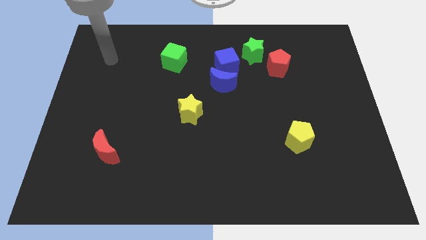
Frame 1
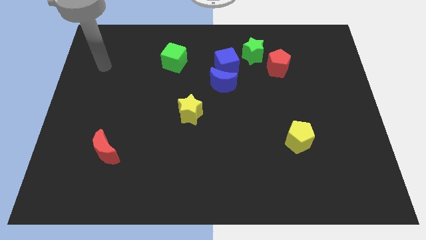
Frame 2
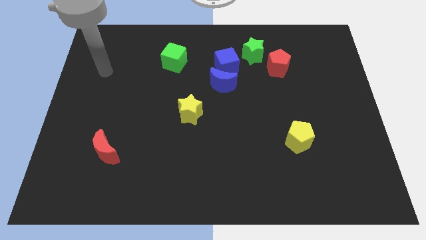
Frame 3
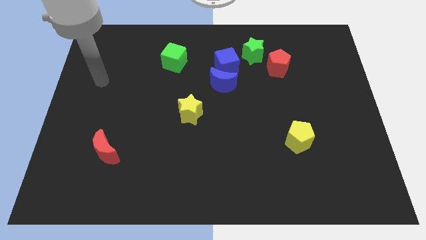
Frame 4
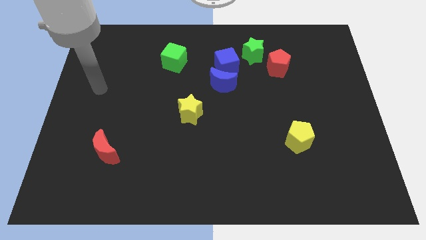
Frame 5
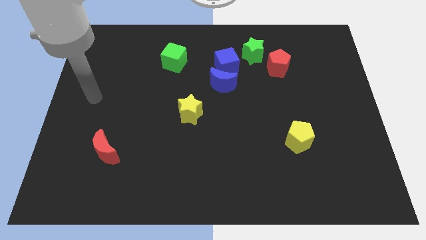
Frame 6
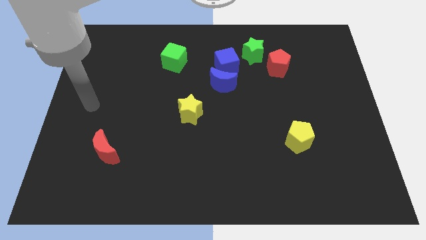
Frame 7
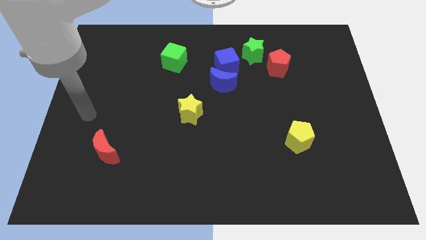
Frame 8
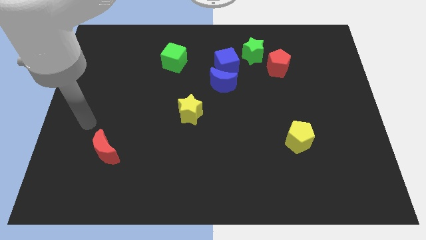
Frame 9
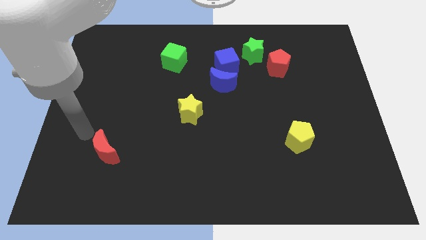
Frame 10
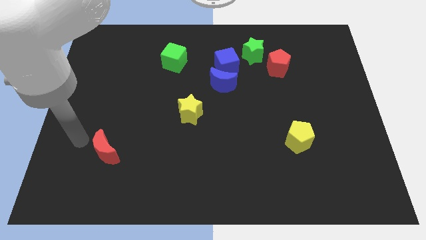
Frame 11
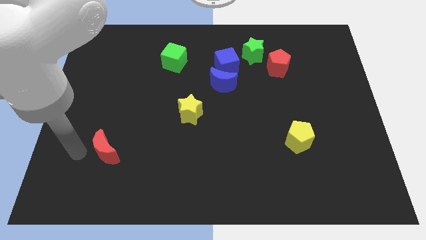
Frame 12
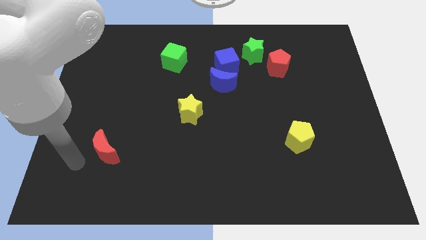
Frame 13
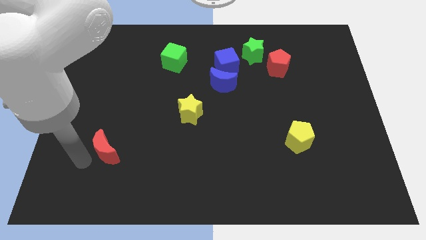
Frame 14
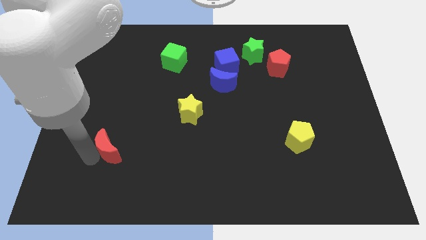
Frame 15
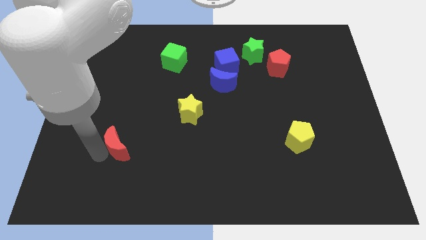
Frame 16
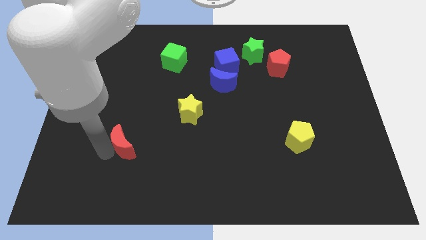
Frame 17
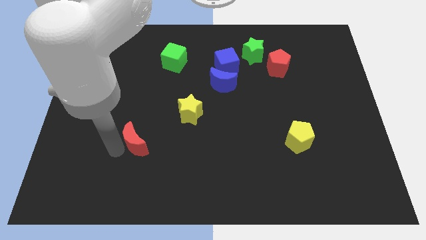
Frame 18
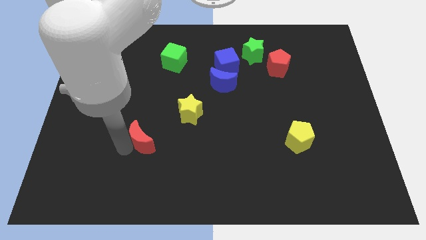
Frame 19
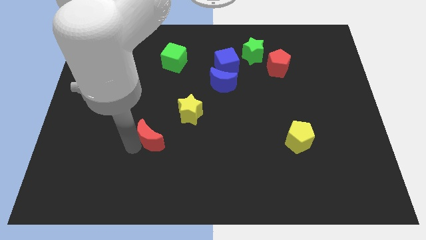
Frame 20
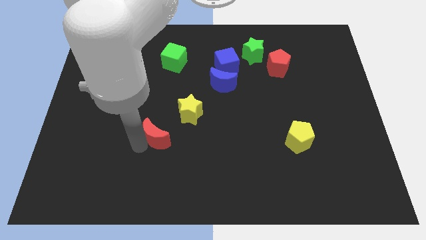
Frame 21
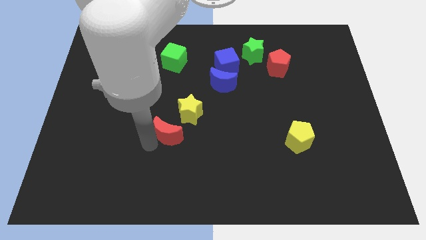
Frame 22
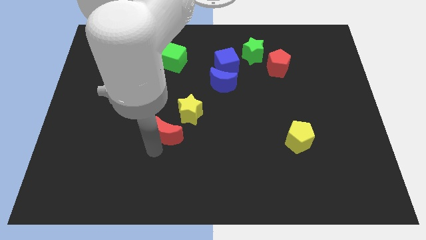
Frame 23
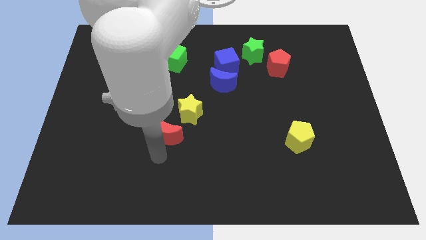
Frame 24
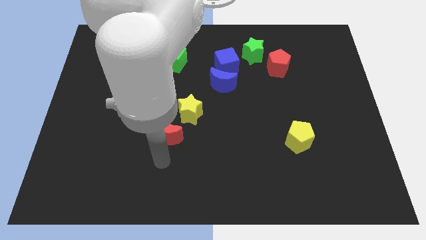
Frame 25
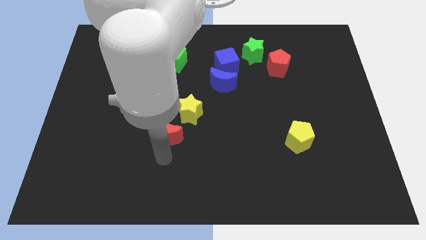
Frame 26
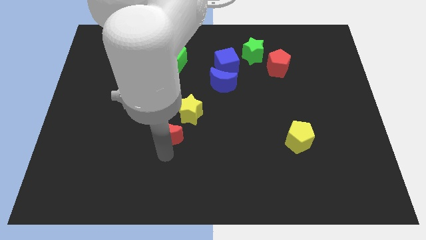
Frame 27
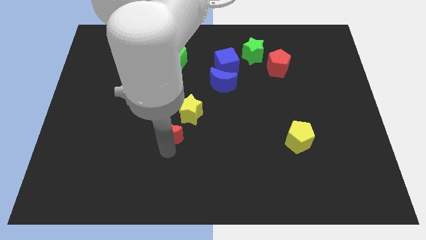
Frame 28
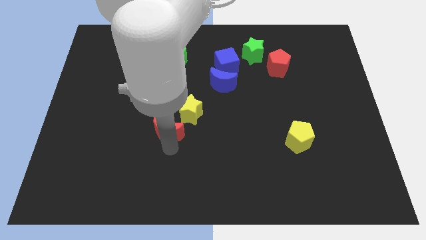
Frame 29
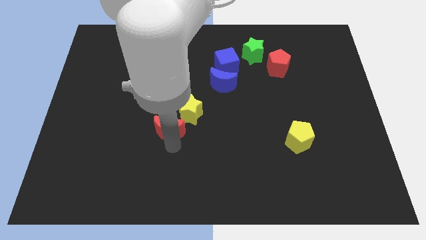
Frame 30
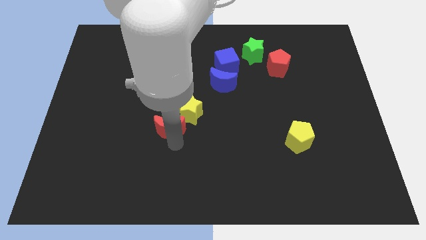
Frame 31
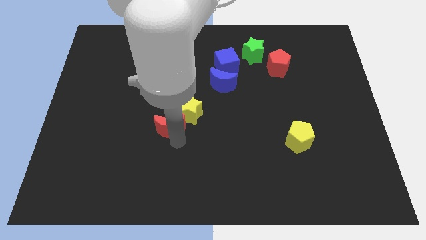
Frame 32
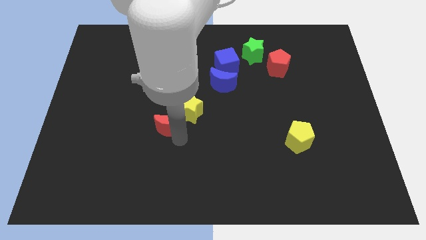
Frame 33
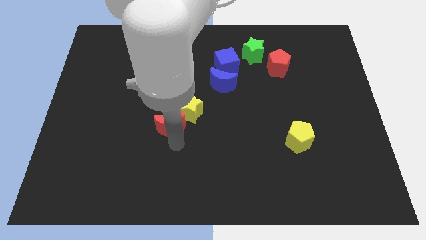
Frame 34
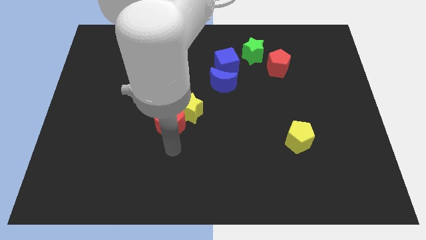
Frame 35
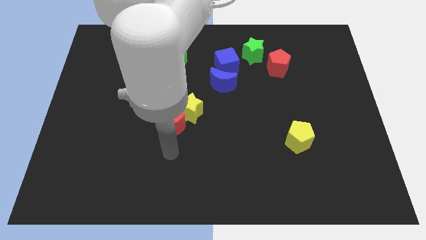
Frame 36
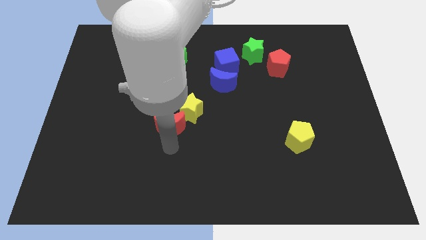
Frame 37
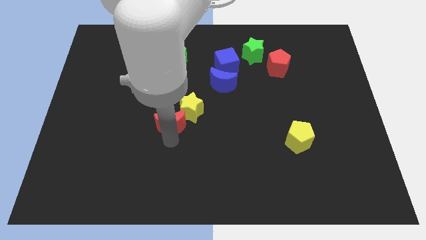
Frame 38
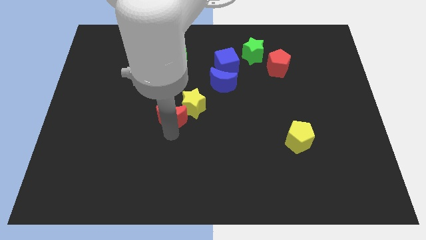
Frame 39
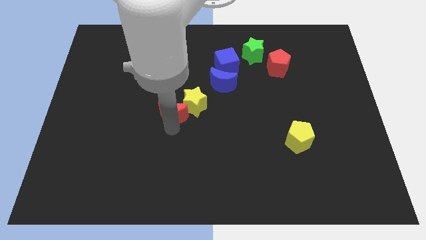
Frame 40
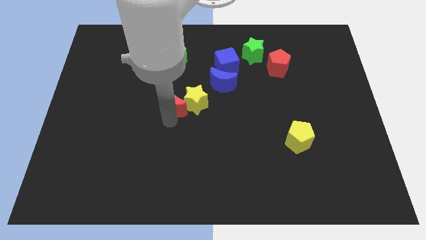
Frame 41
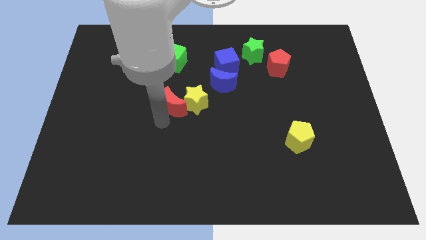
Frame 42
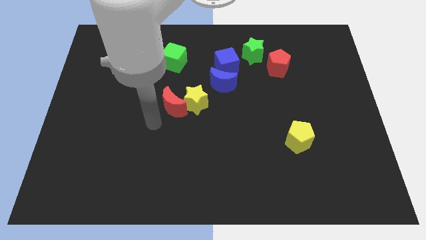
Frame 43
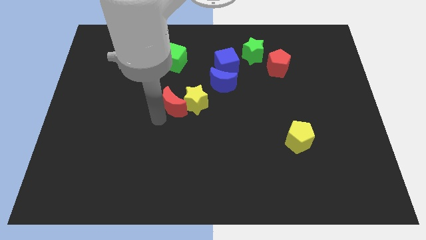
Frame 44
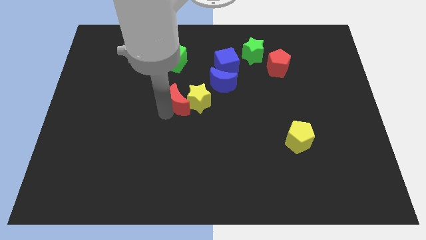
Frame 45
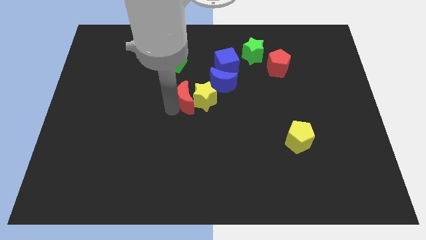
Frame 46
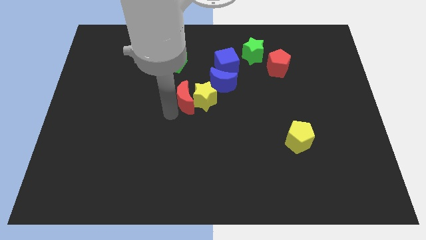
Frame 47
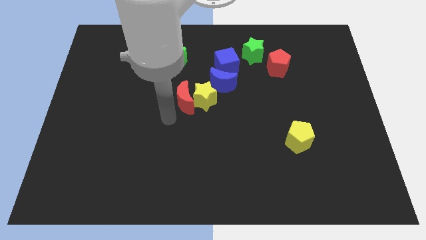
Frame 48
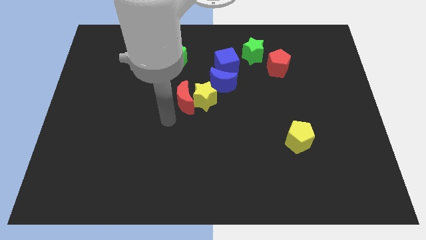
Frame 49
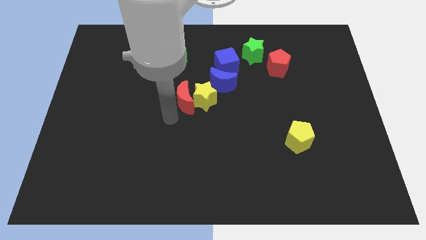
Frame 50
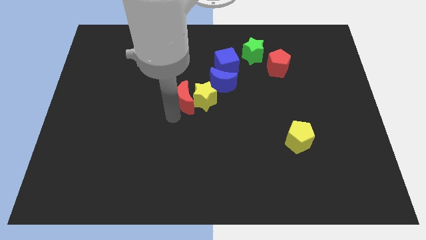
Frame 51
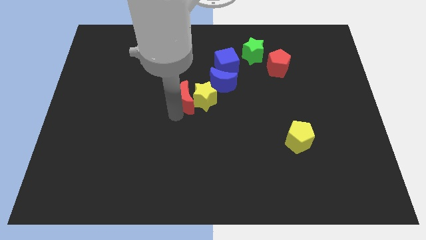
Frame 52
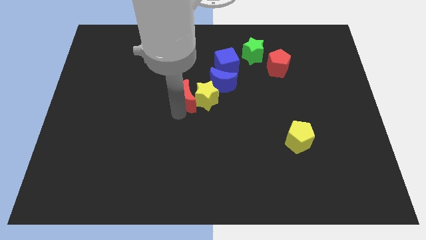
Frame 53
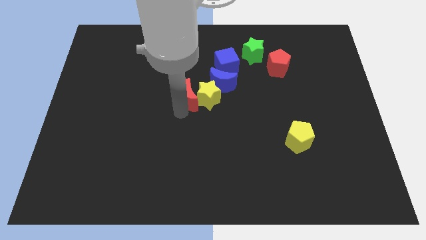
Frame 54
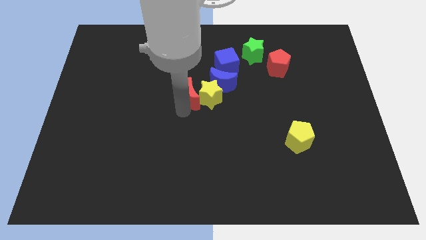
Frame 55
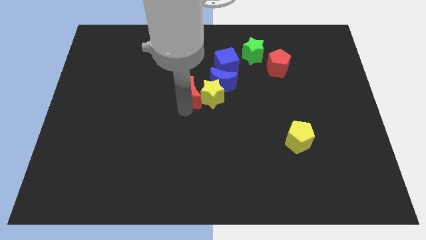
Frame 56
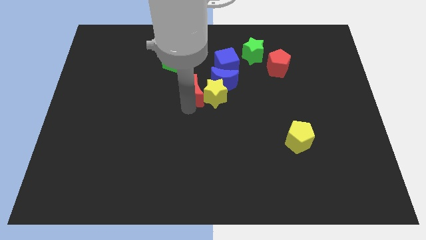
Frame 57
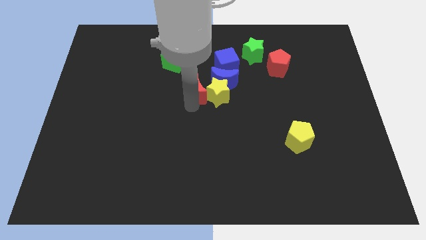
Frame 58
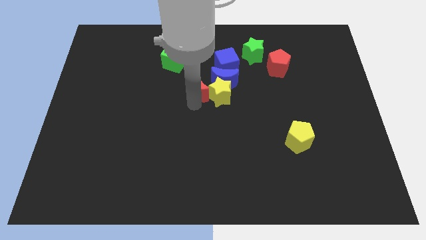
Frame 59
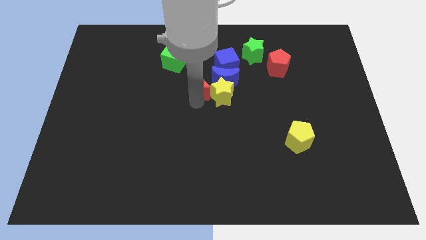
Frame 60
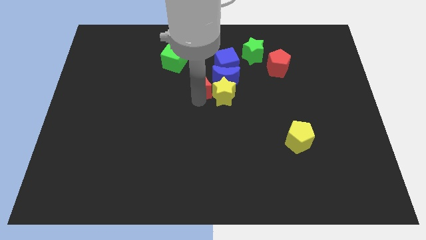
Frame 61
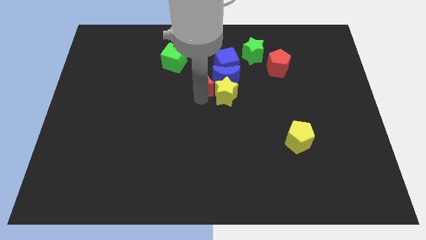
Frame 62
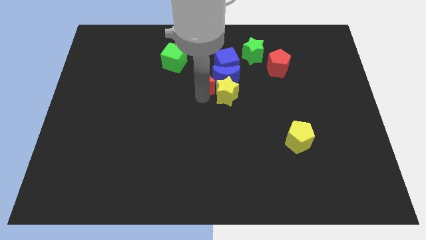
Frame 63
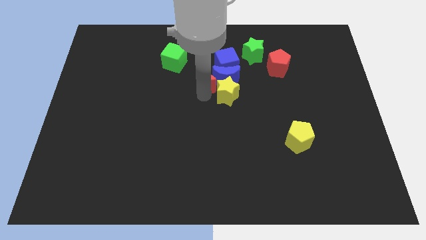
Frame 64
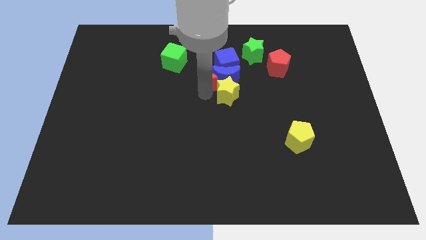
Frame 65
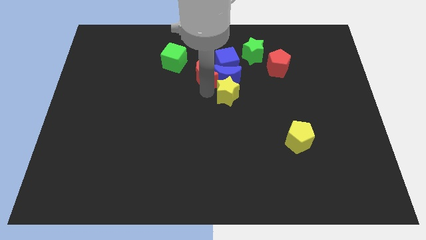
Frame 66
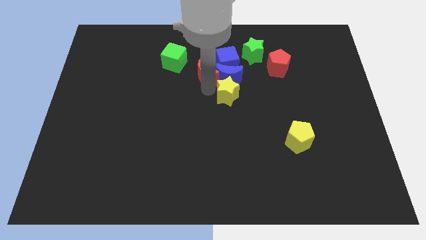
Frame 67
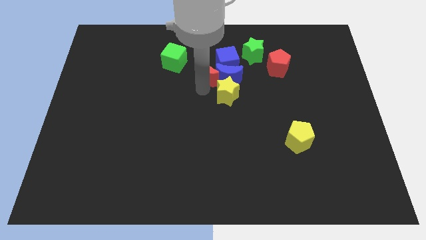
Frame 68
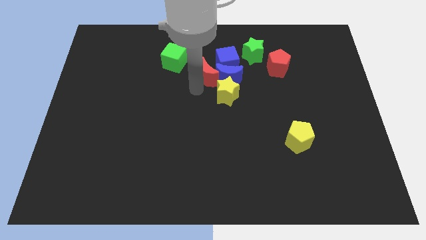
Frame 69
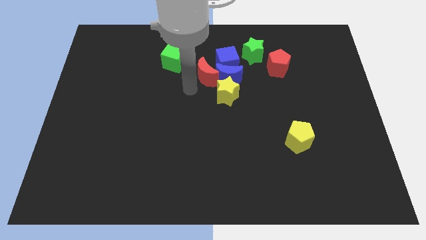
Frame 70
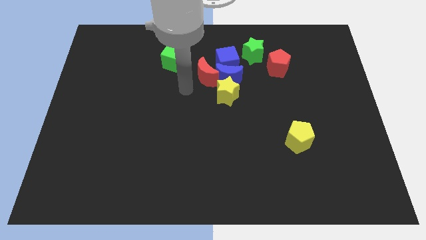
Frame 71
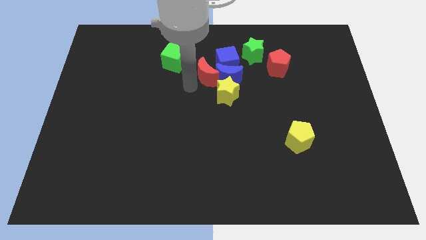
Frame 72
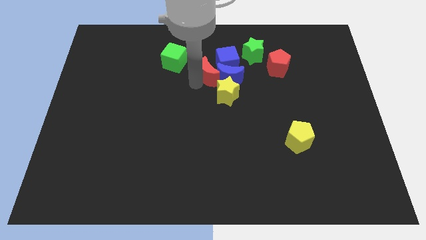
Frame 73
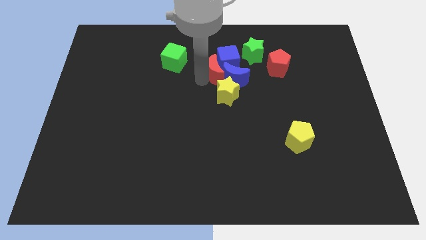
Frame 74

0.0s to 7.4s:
put the red moon close to the blue cube
